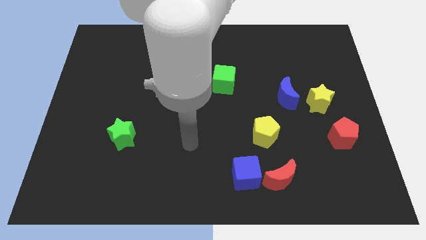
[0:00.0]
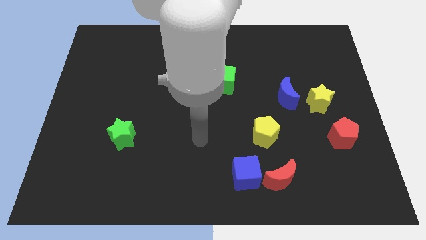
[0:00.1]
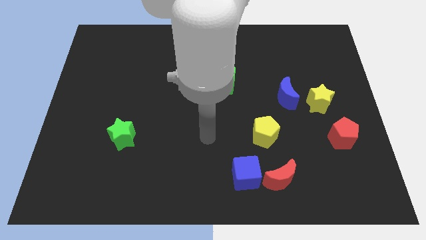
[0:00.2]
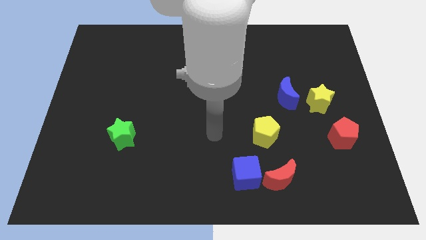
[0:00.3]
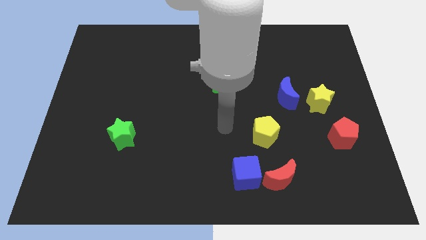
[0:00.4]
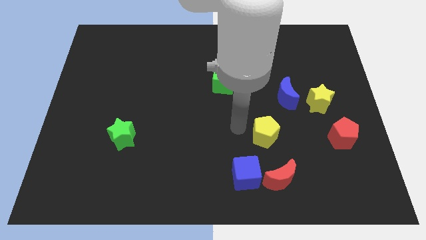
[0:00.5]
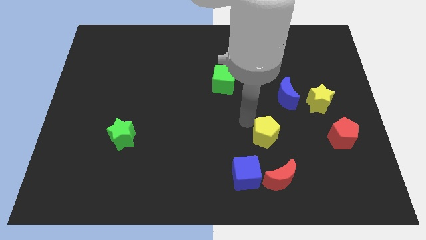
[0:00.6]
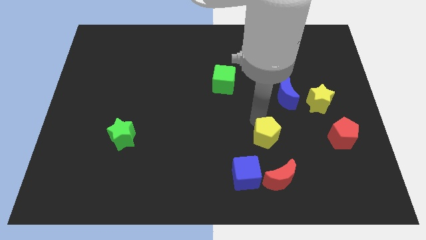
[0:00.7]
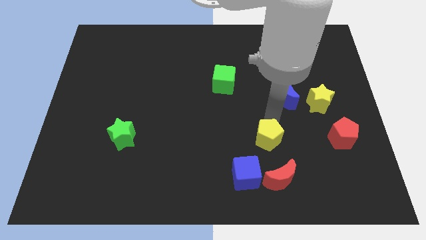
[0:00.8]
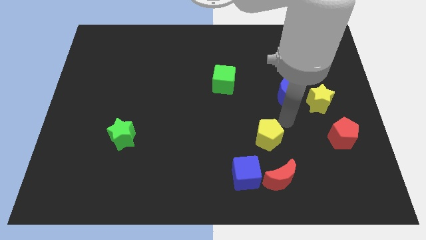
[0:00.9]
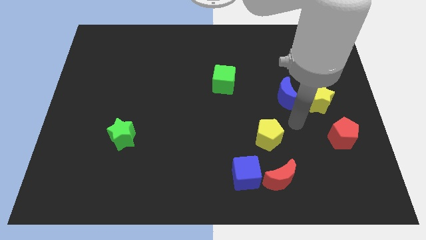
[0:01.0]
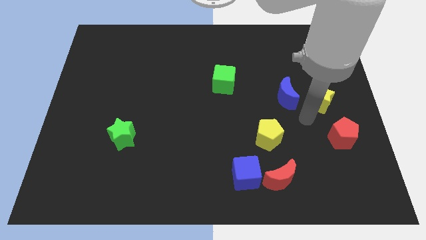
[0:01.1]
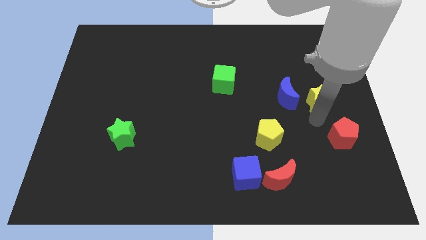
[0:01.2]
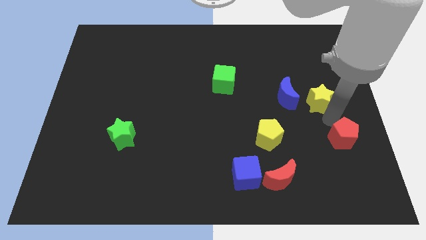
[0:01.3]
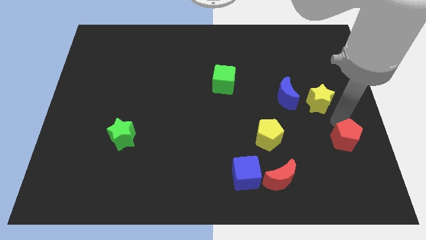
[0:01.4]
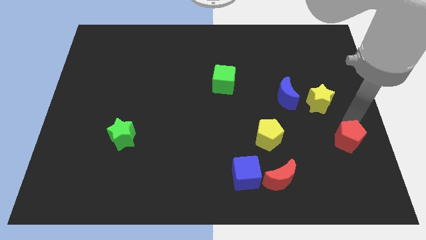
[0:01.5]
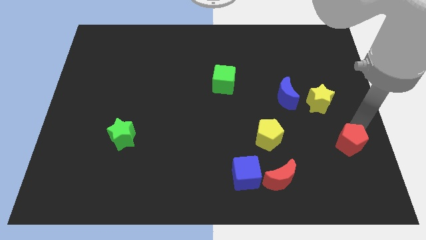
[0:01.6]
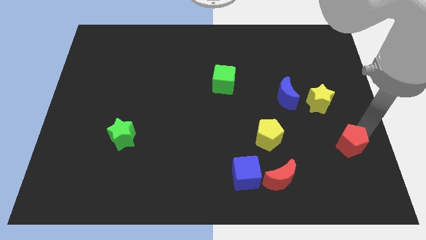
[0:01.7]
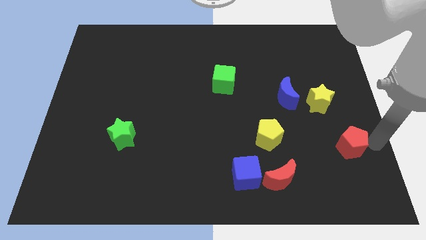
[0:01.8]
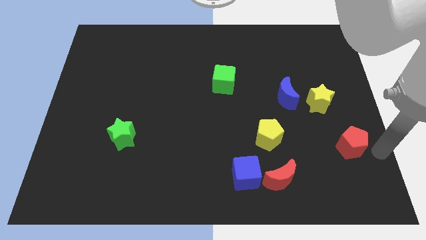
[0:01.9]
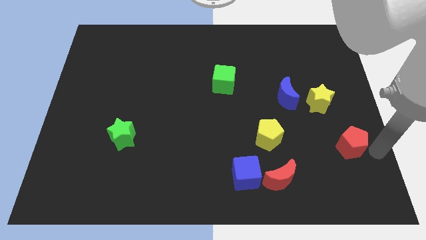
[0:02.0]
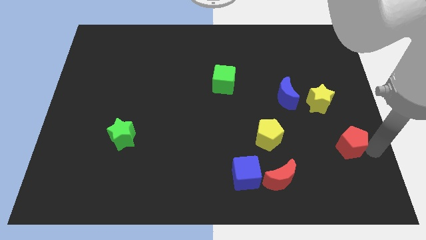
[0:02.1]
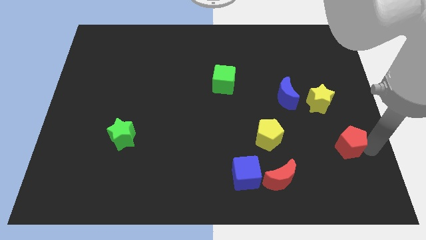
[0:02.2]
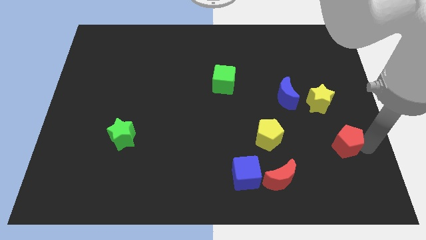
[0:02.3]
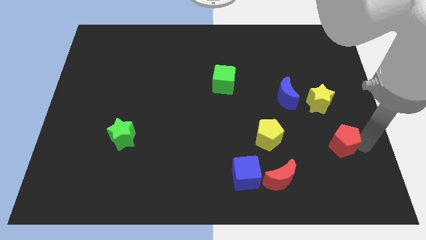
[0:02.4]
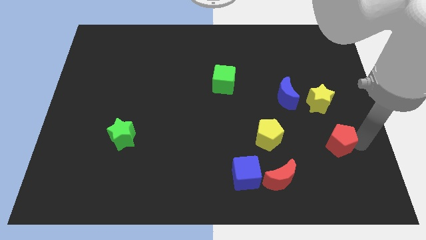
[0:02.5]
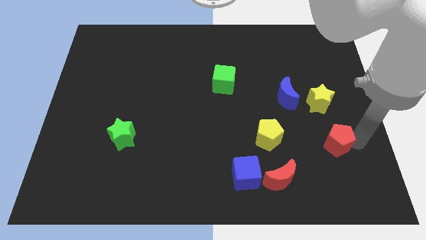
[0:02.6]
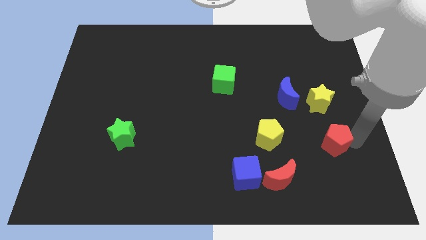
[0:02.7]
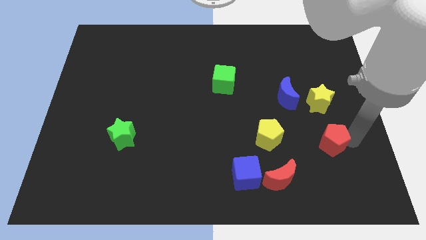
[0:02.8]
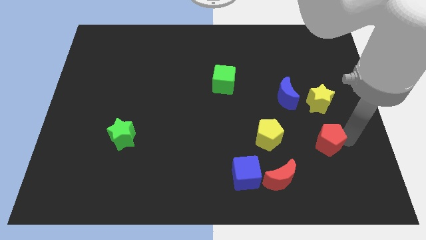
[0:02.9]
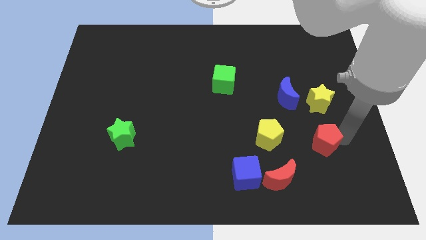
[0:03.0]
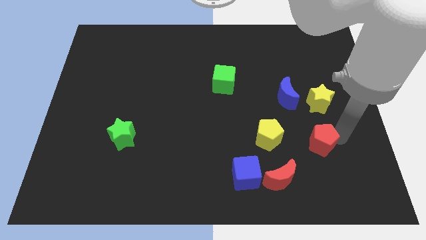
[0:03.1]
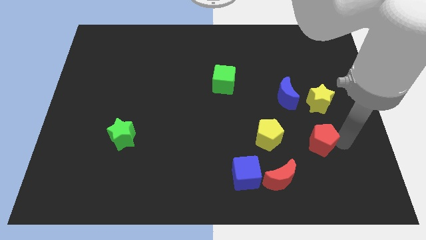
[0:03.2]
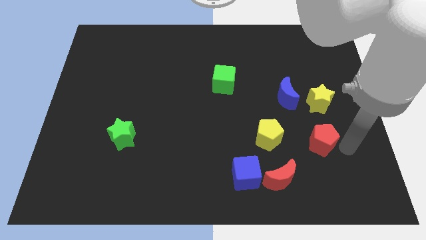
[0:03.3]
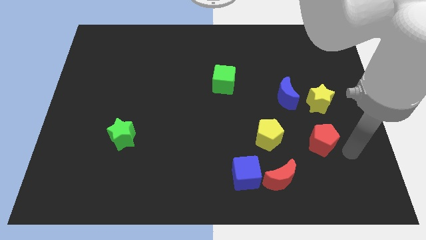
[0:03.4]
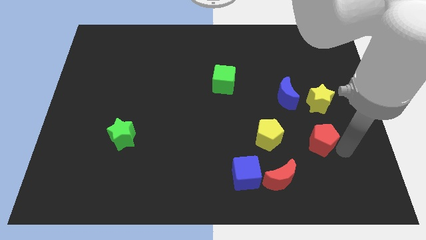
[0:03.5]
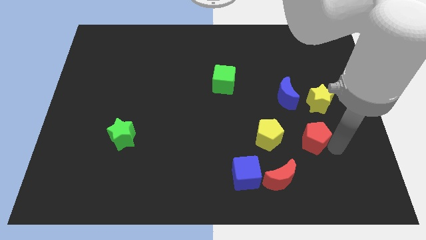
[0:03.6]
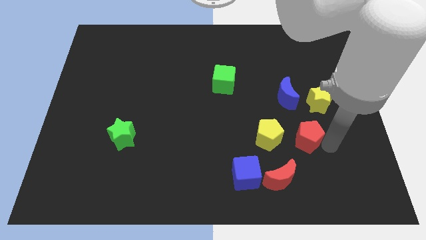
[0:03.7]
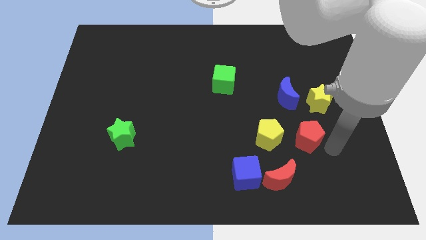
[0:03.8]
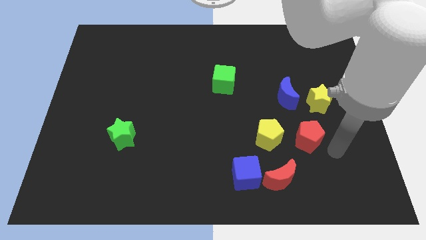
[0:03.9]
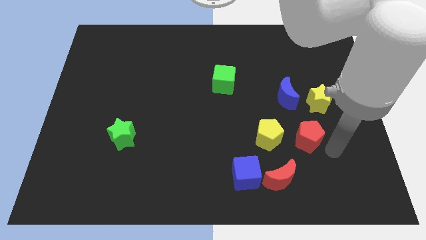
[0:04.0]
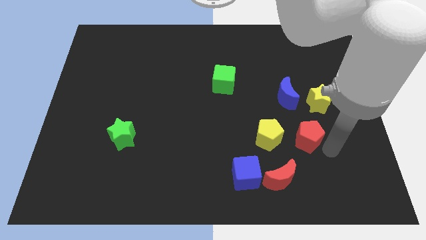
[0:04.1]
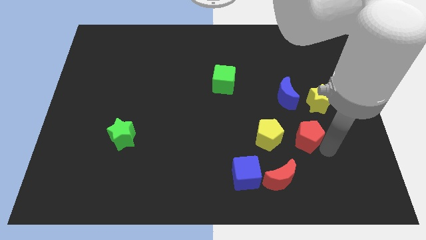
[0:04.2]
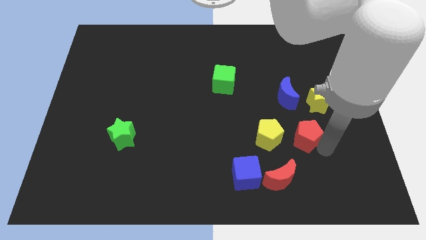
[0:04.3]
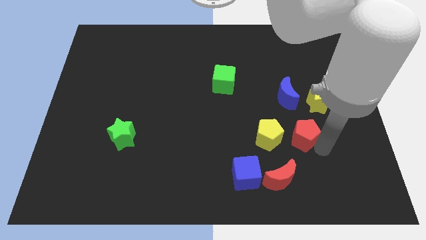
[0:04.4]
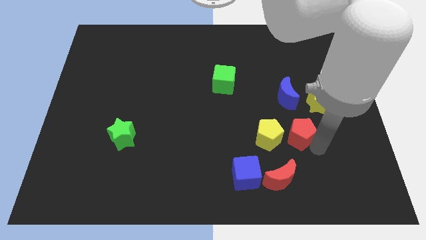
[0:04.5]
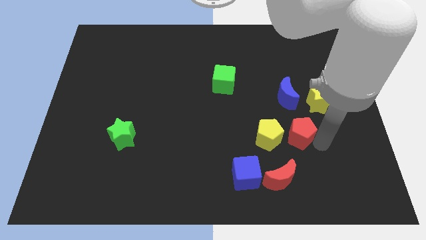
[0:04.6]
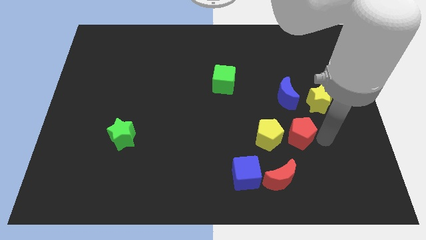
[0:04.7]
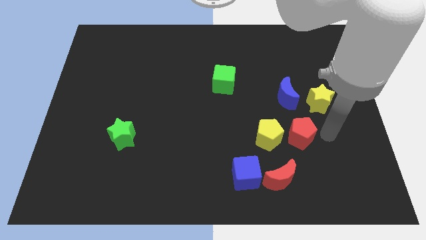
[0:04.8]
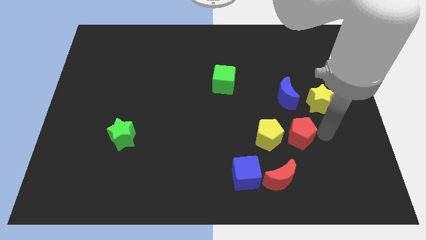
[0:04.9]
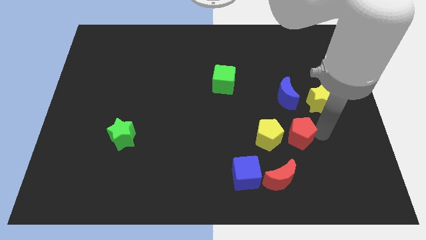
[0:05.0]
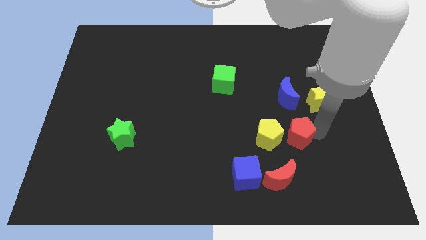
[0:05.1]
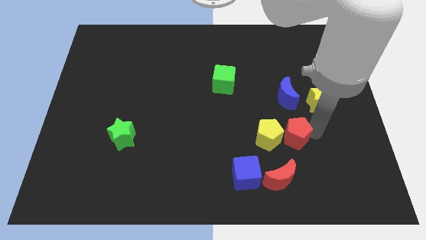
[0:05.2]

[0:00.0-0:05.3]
put the red pentagon close to the yellow pentagon

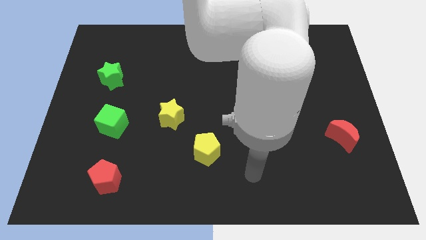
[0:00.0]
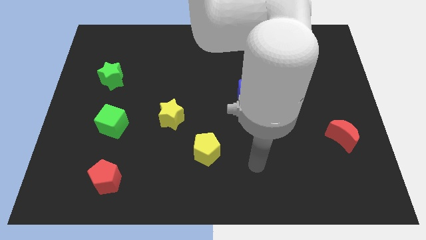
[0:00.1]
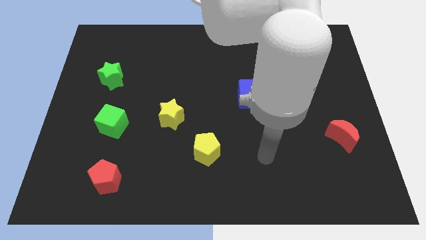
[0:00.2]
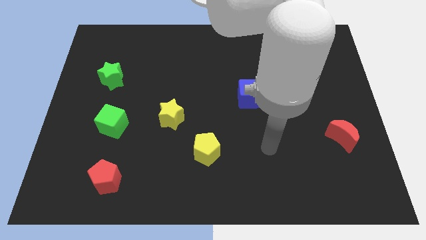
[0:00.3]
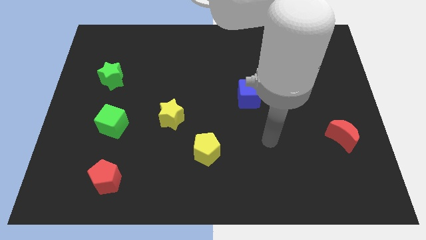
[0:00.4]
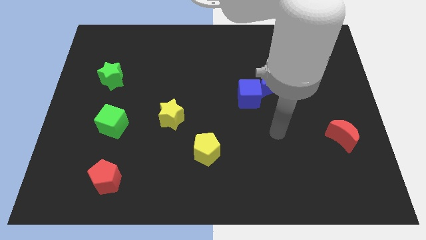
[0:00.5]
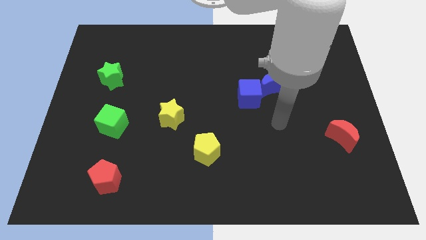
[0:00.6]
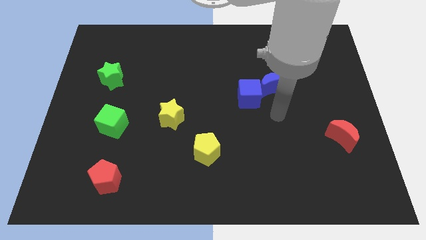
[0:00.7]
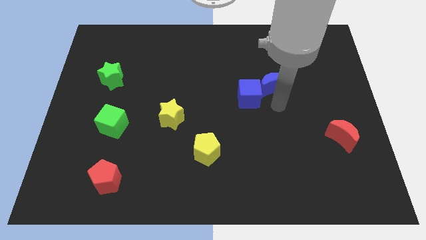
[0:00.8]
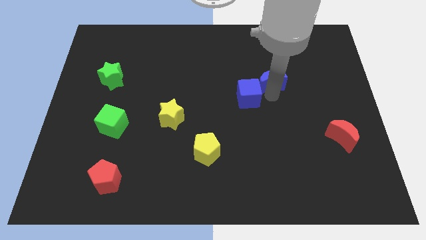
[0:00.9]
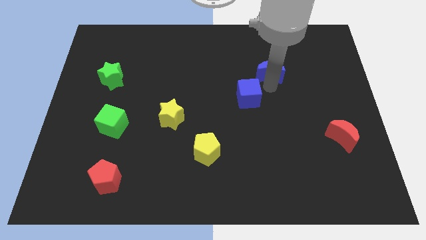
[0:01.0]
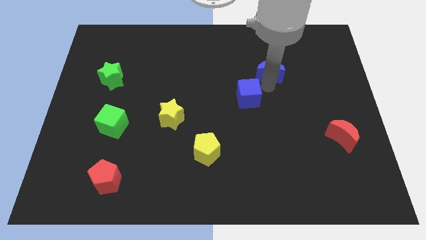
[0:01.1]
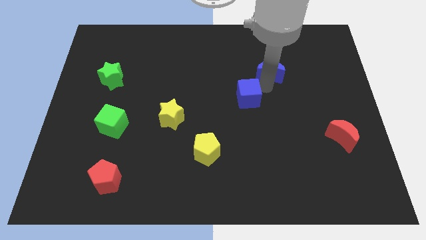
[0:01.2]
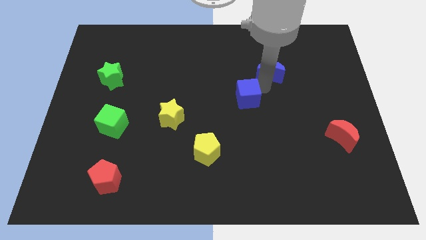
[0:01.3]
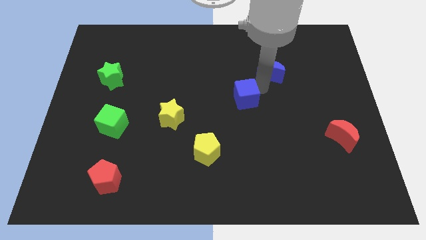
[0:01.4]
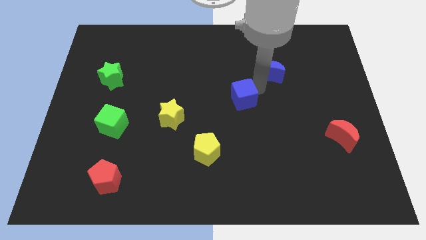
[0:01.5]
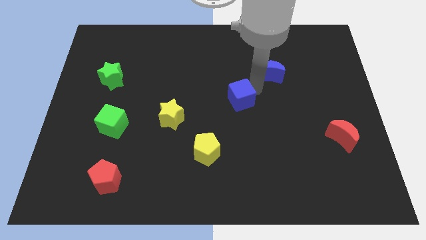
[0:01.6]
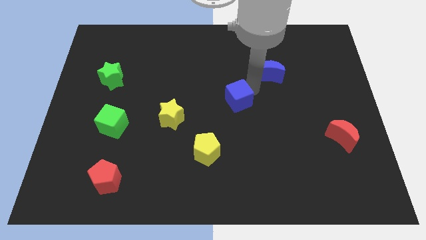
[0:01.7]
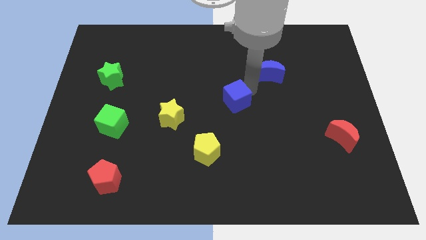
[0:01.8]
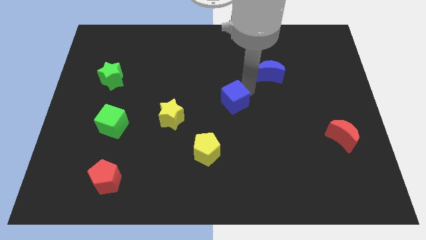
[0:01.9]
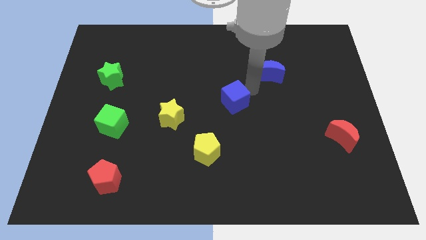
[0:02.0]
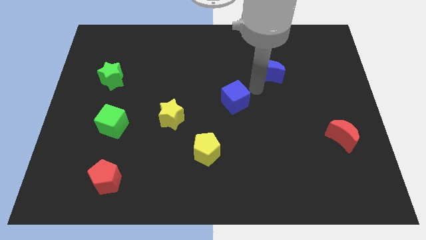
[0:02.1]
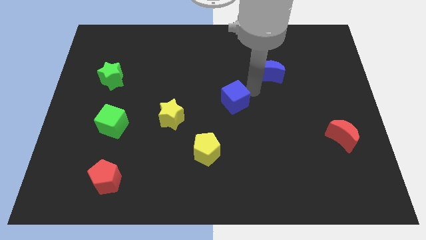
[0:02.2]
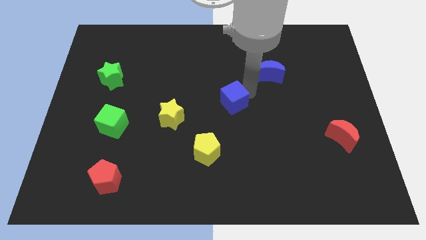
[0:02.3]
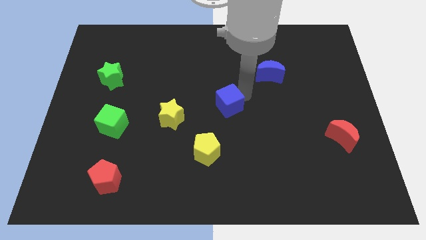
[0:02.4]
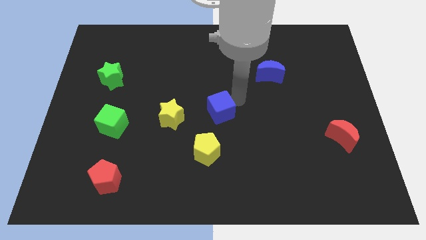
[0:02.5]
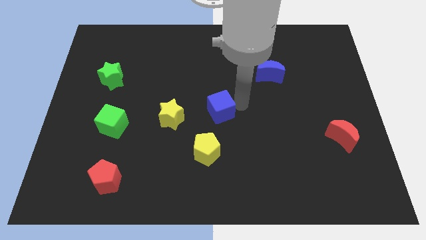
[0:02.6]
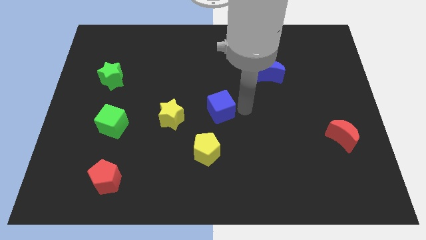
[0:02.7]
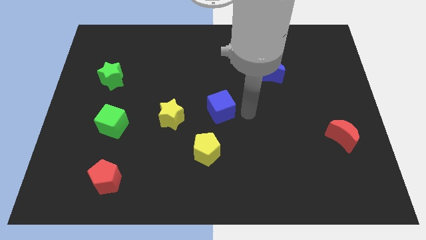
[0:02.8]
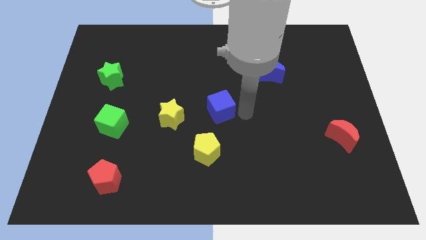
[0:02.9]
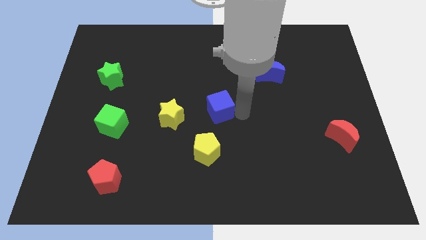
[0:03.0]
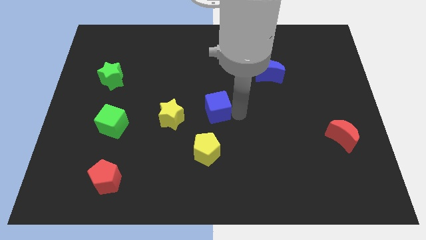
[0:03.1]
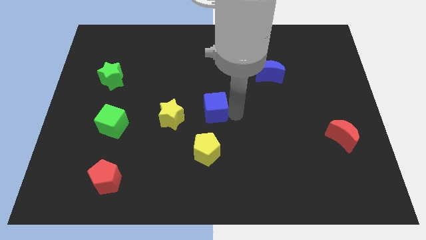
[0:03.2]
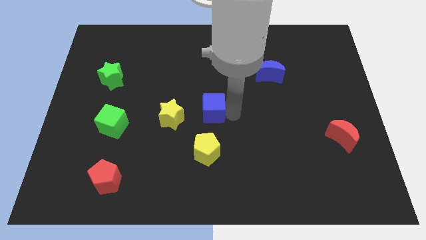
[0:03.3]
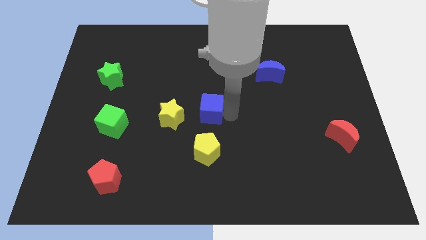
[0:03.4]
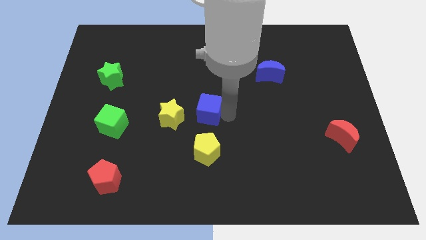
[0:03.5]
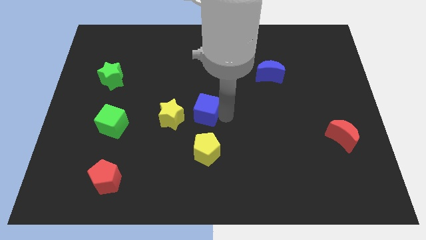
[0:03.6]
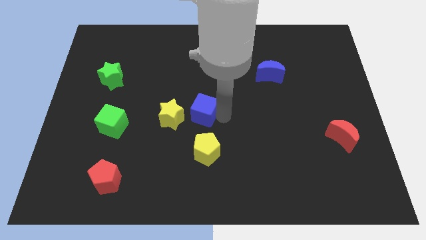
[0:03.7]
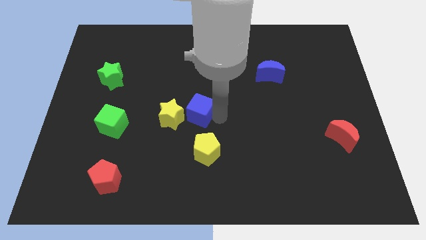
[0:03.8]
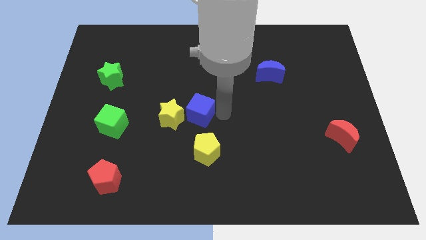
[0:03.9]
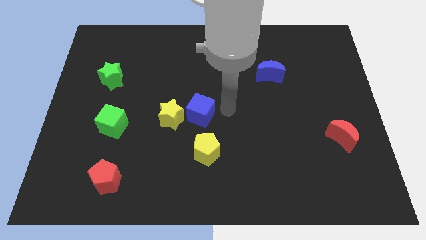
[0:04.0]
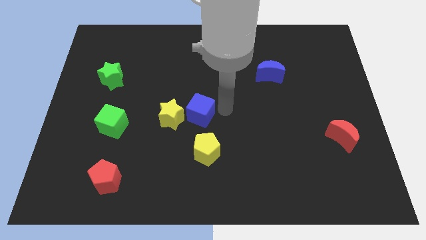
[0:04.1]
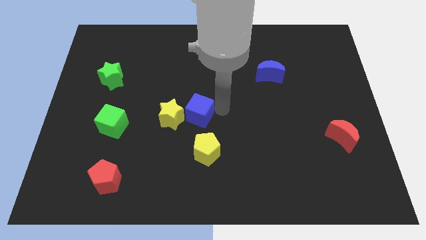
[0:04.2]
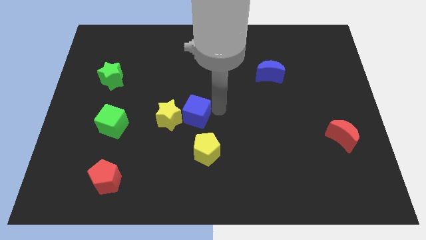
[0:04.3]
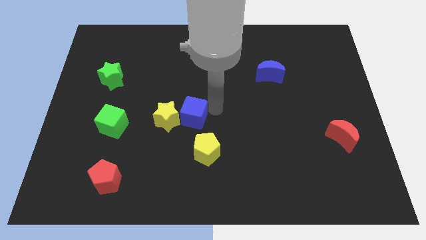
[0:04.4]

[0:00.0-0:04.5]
push the blue cube next to the yellow star
